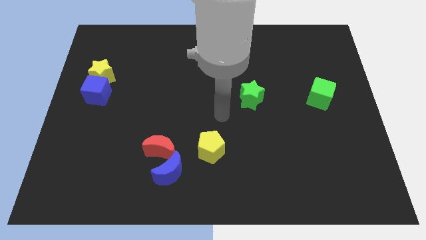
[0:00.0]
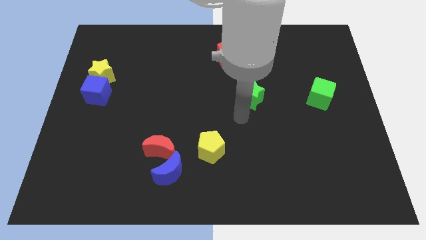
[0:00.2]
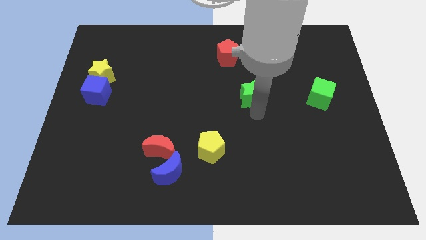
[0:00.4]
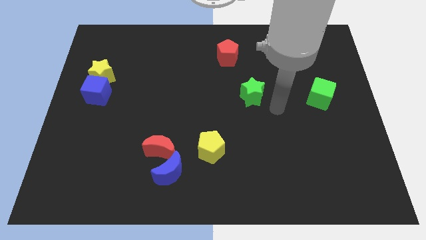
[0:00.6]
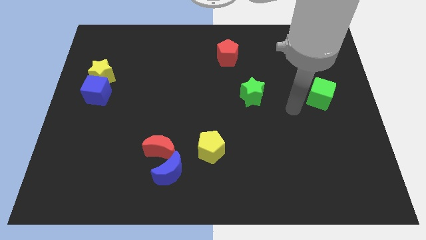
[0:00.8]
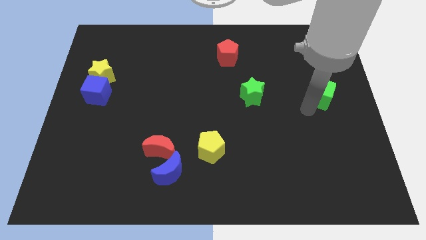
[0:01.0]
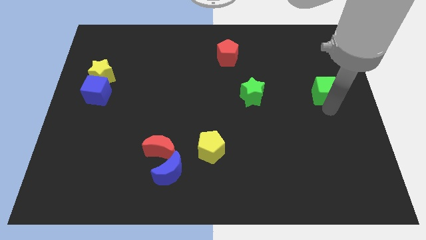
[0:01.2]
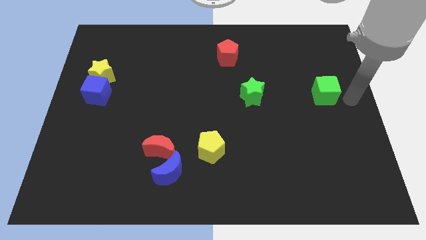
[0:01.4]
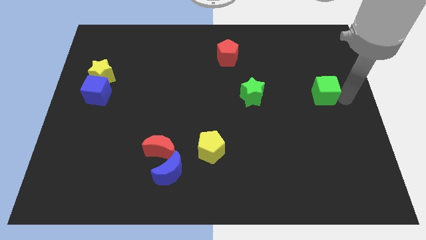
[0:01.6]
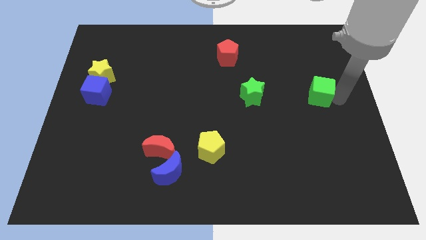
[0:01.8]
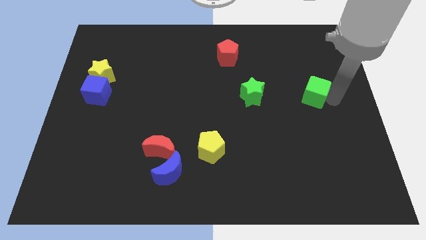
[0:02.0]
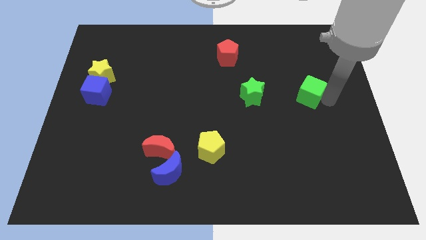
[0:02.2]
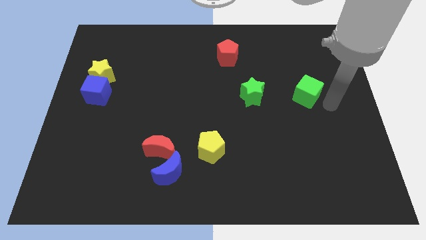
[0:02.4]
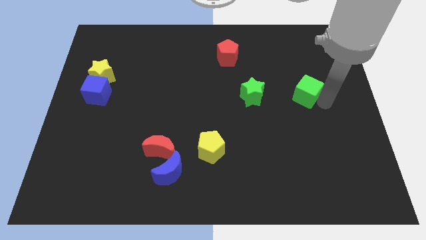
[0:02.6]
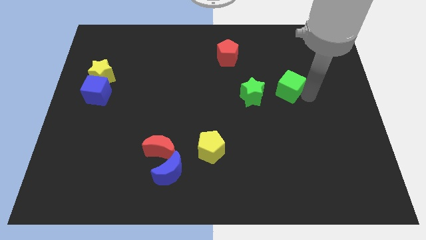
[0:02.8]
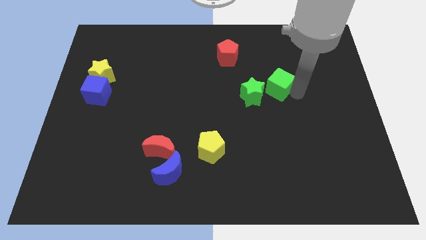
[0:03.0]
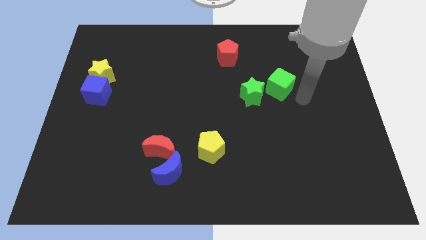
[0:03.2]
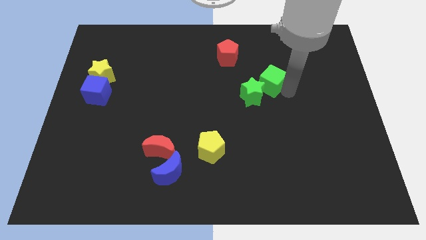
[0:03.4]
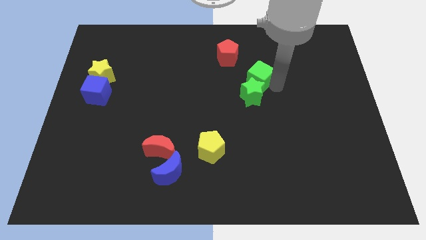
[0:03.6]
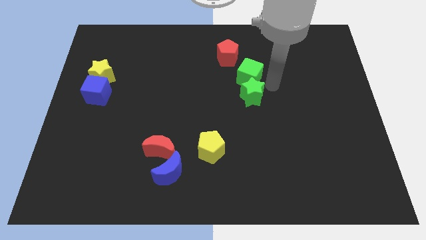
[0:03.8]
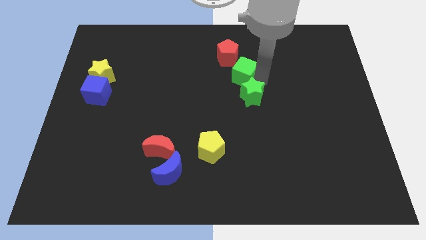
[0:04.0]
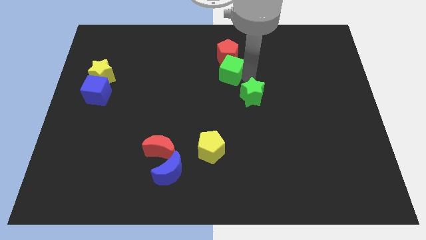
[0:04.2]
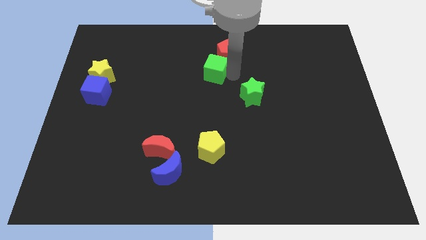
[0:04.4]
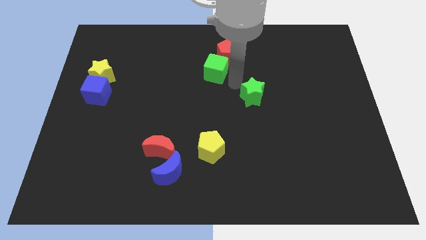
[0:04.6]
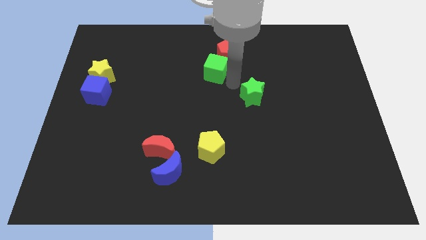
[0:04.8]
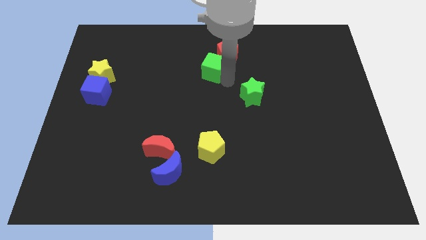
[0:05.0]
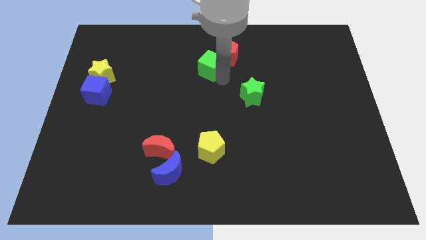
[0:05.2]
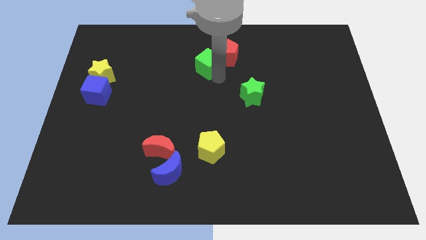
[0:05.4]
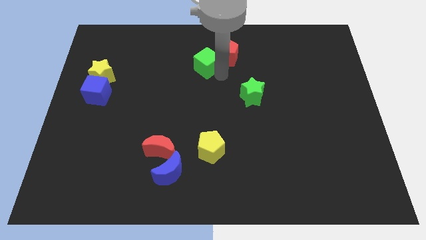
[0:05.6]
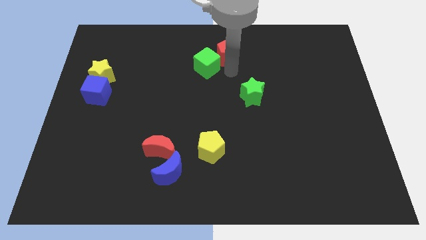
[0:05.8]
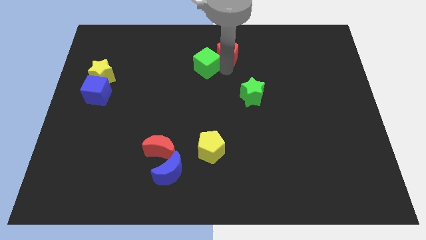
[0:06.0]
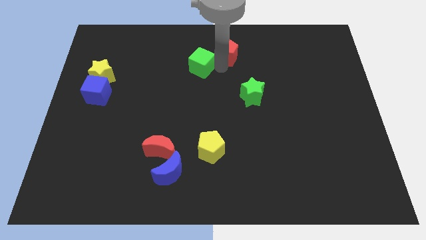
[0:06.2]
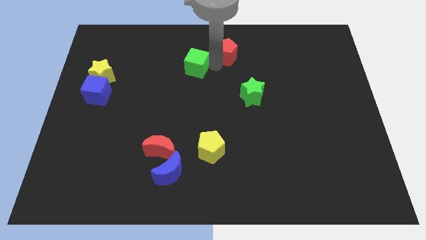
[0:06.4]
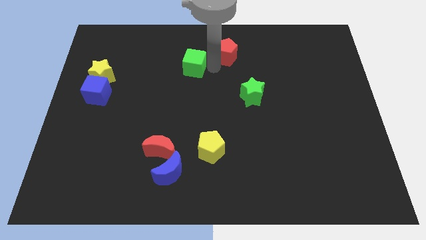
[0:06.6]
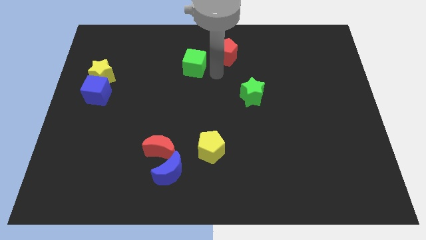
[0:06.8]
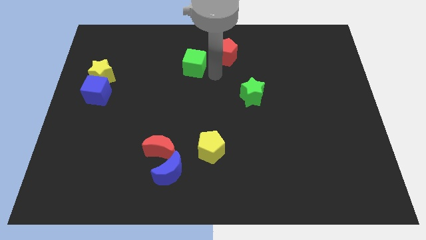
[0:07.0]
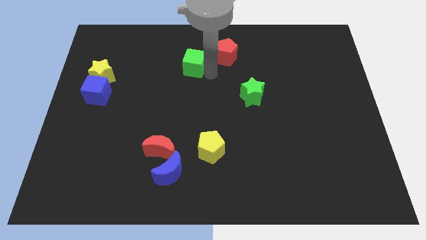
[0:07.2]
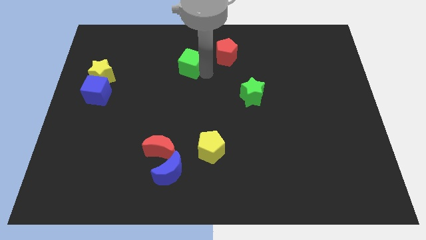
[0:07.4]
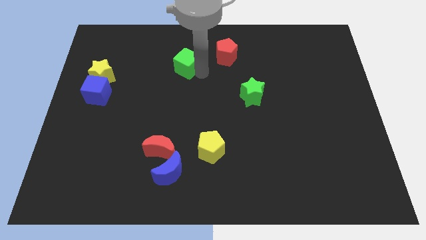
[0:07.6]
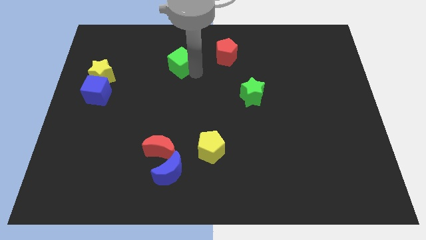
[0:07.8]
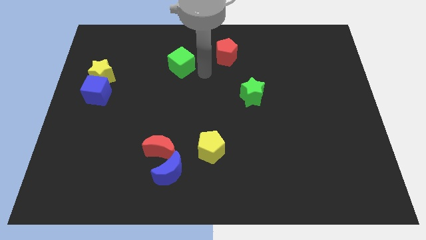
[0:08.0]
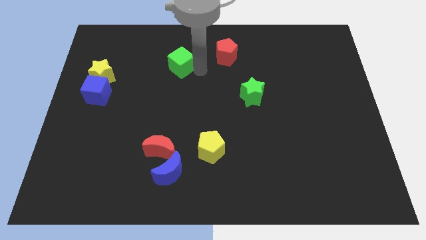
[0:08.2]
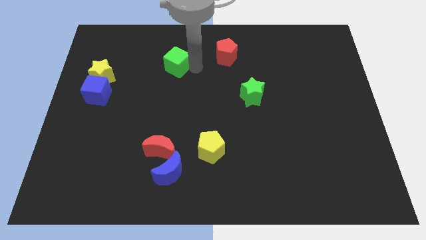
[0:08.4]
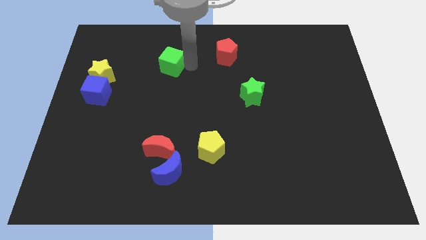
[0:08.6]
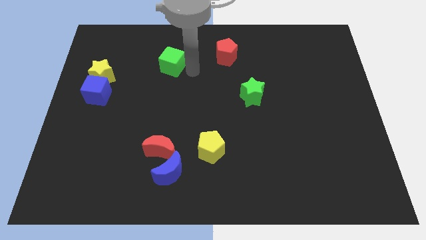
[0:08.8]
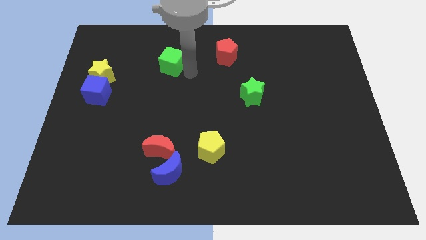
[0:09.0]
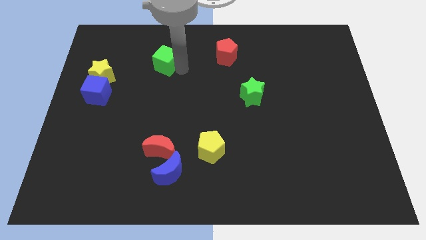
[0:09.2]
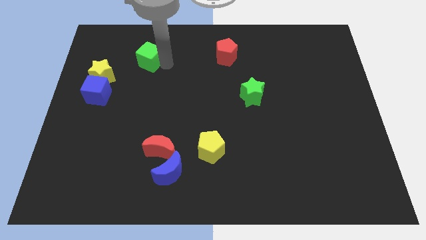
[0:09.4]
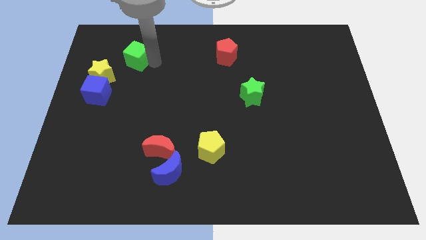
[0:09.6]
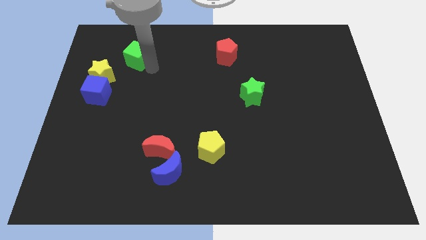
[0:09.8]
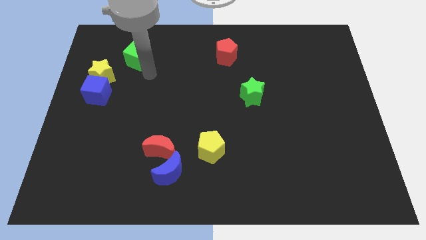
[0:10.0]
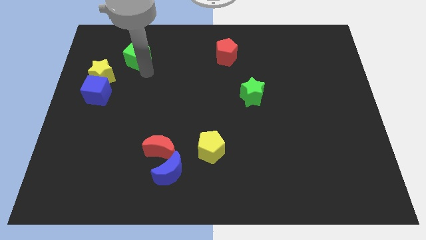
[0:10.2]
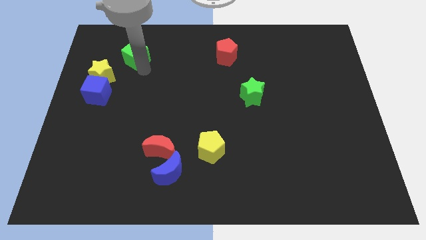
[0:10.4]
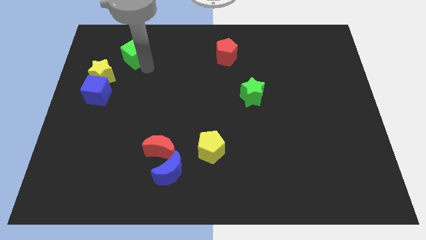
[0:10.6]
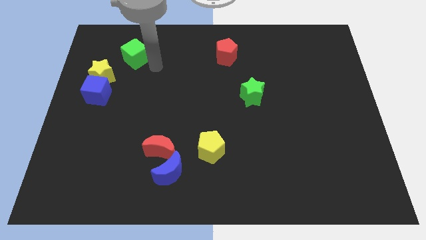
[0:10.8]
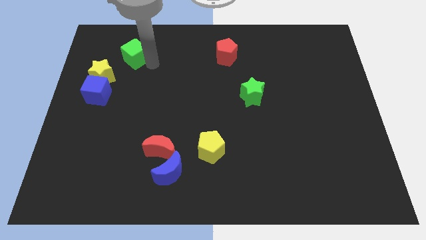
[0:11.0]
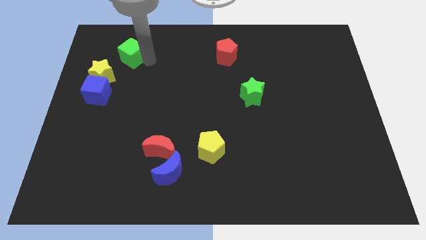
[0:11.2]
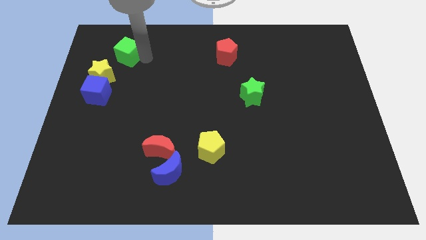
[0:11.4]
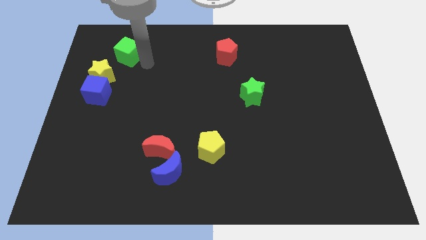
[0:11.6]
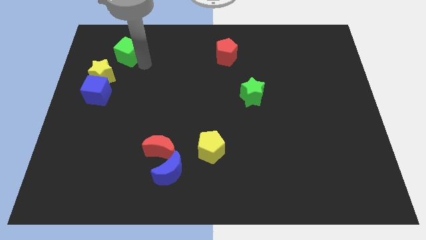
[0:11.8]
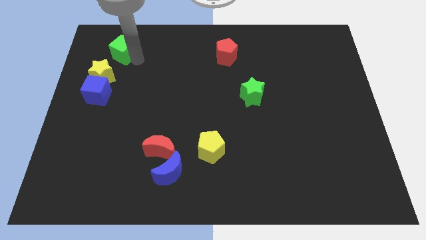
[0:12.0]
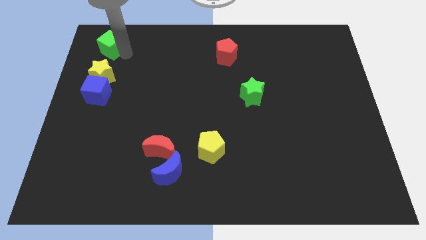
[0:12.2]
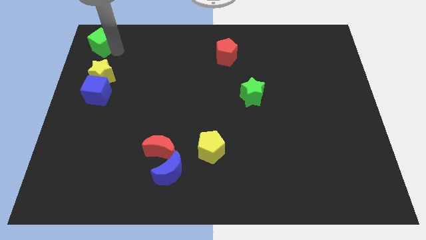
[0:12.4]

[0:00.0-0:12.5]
move the green cube to the top left

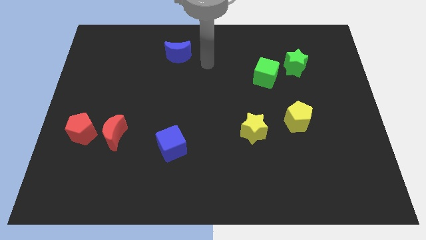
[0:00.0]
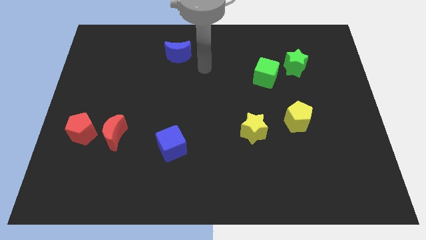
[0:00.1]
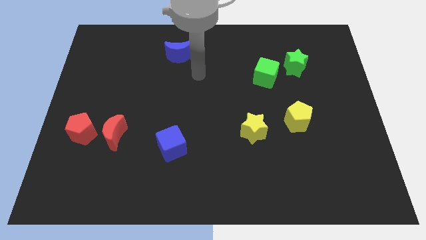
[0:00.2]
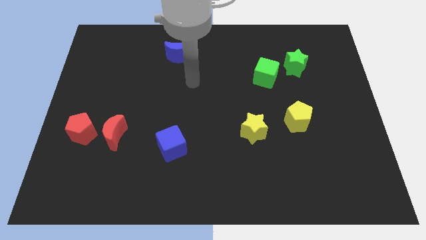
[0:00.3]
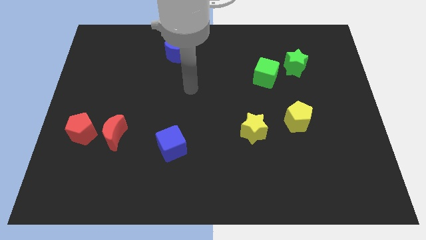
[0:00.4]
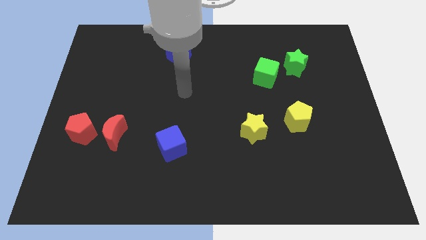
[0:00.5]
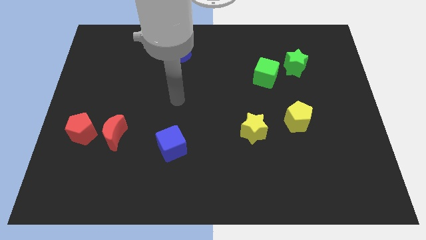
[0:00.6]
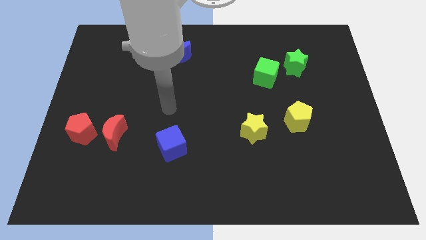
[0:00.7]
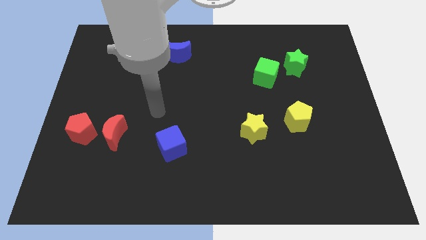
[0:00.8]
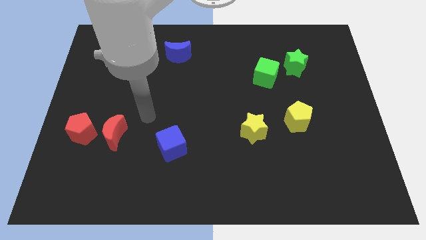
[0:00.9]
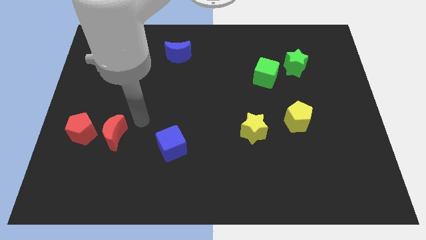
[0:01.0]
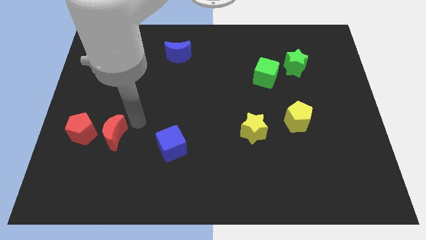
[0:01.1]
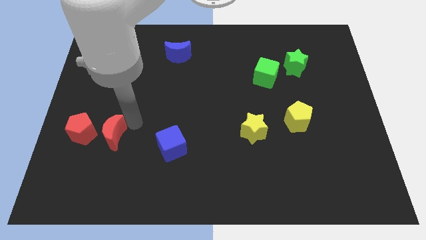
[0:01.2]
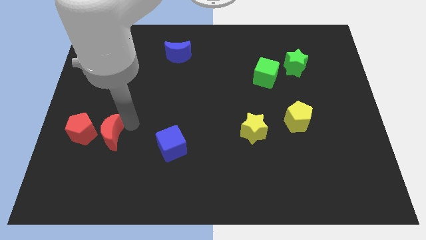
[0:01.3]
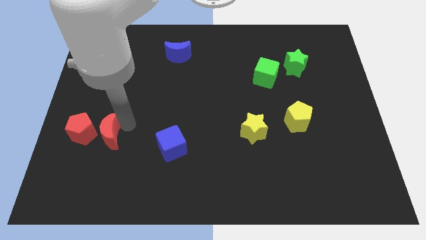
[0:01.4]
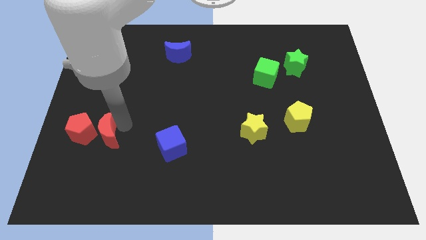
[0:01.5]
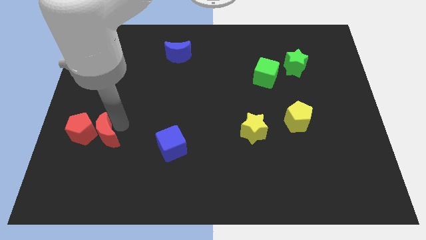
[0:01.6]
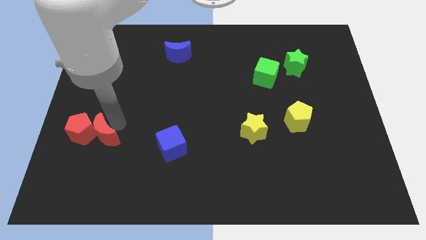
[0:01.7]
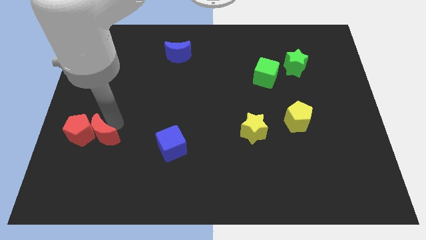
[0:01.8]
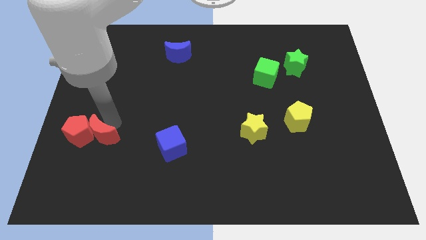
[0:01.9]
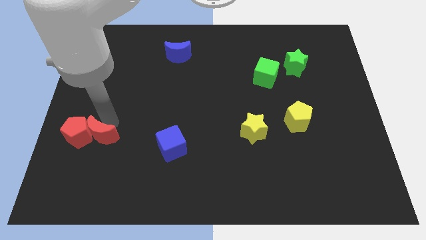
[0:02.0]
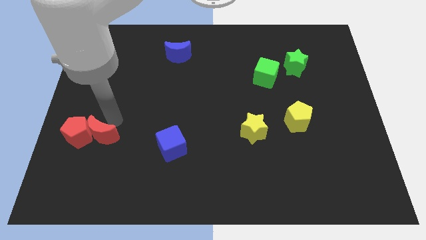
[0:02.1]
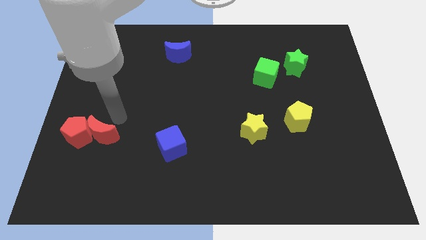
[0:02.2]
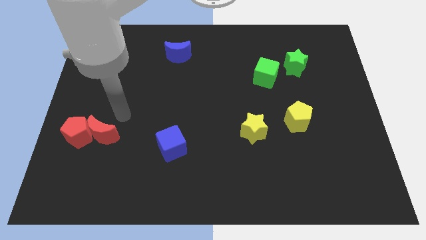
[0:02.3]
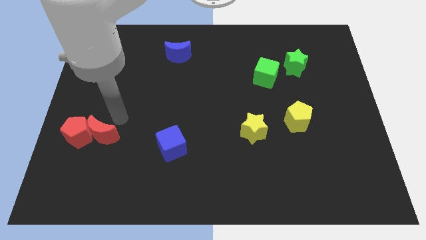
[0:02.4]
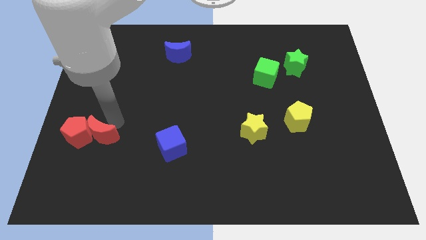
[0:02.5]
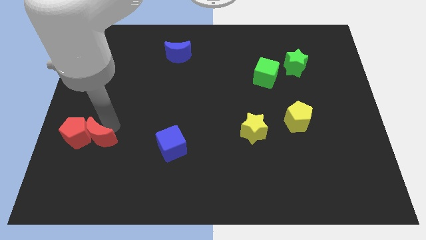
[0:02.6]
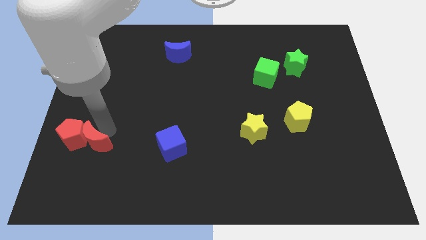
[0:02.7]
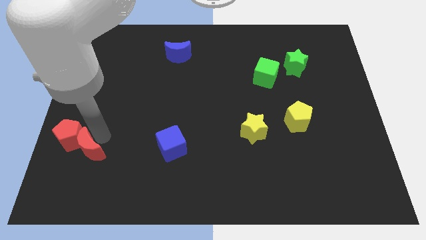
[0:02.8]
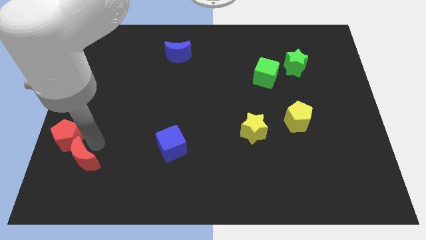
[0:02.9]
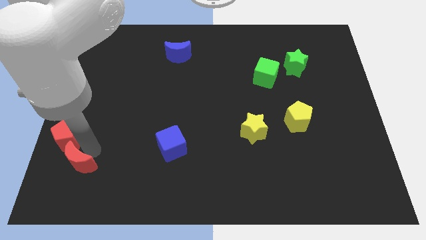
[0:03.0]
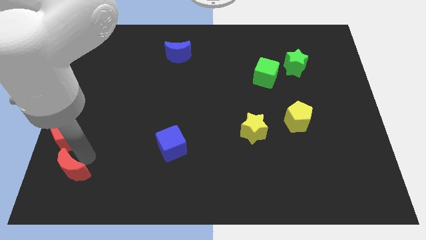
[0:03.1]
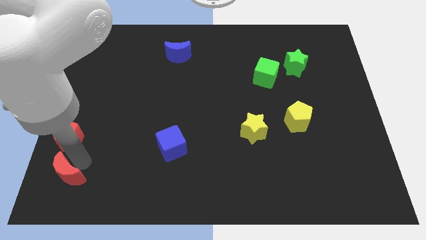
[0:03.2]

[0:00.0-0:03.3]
move the red moon to the bottom left of the board
